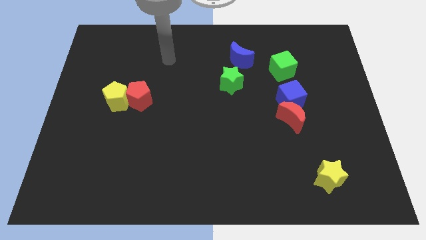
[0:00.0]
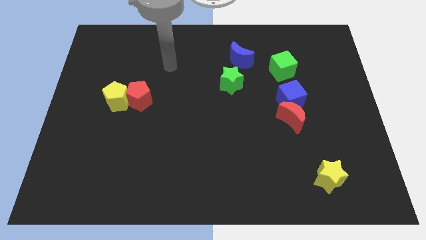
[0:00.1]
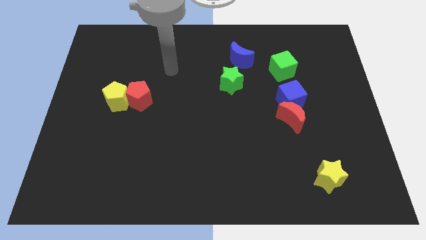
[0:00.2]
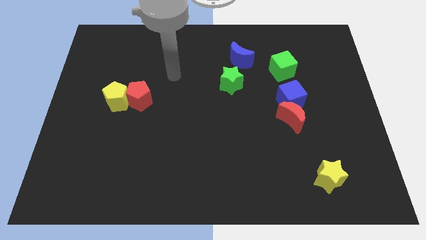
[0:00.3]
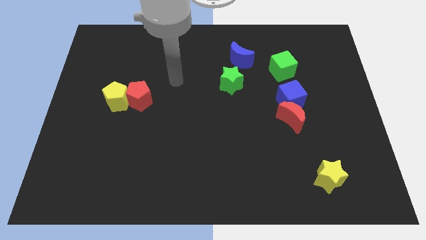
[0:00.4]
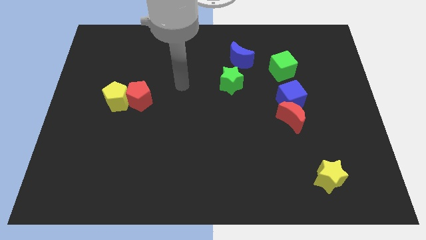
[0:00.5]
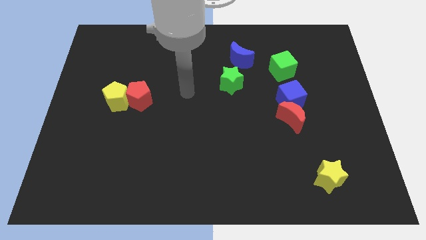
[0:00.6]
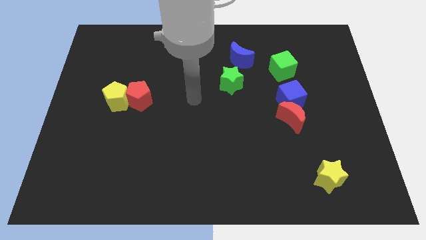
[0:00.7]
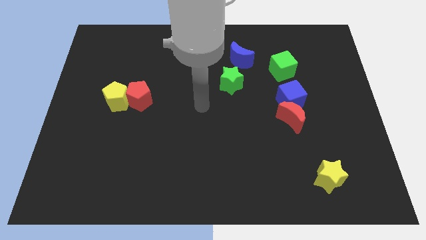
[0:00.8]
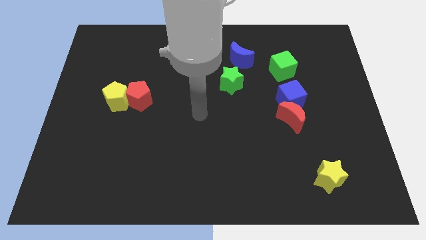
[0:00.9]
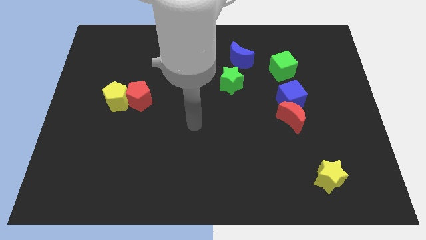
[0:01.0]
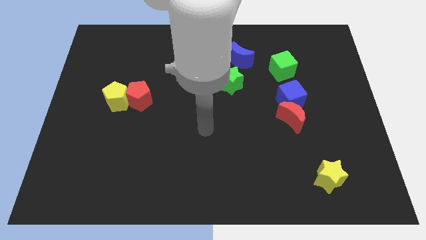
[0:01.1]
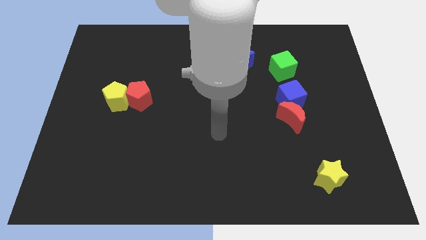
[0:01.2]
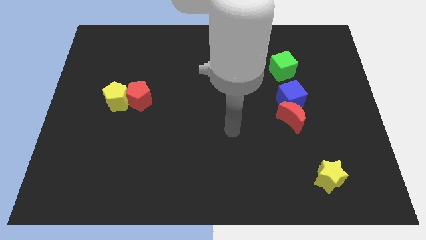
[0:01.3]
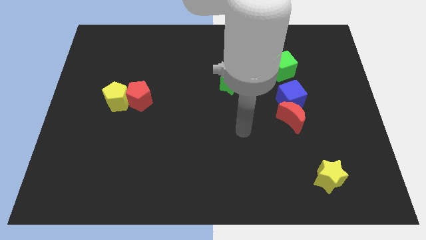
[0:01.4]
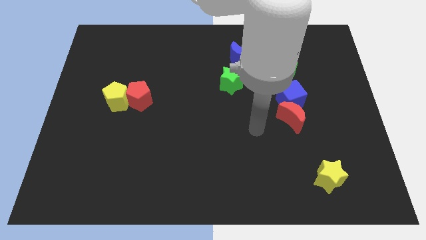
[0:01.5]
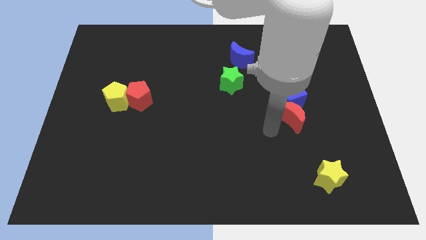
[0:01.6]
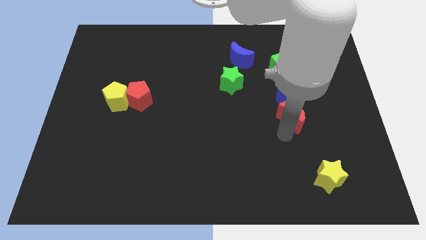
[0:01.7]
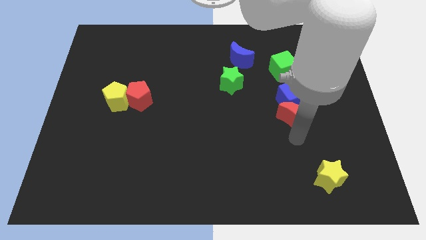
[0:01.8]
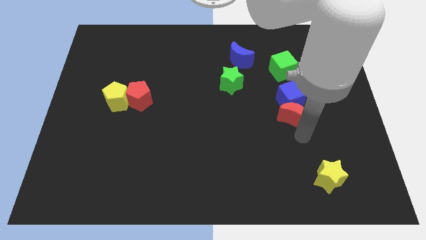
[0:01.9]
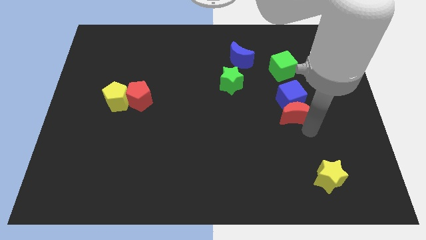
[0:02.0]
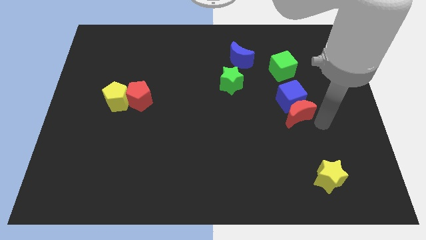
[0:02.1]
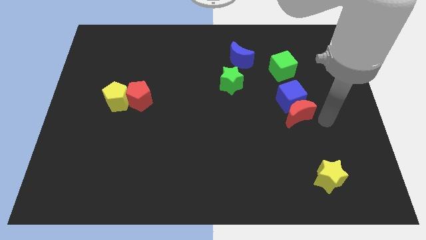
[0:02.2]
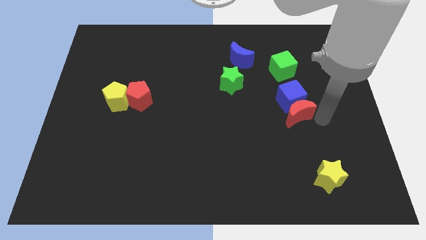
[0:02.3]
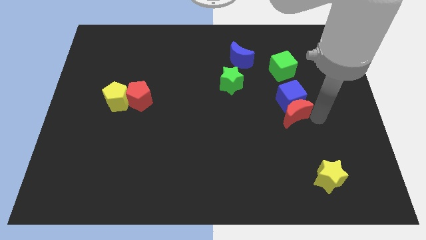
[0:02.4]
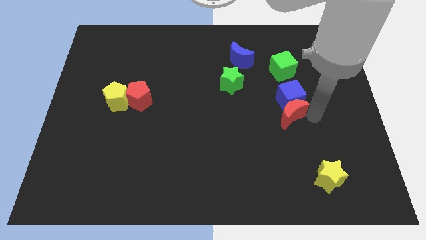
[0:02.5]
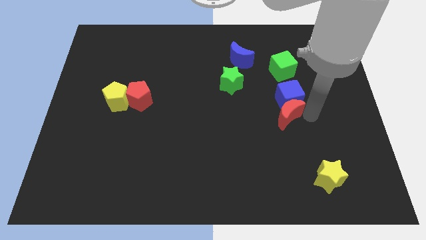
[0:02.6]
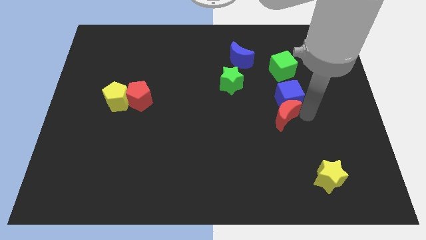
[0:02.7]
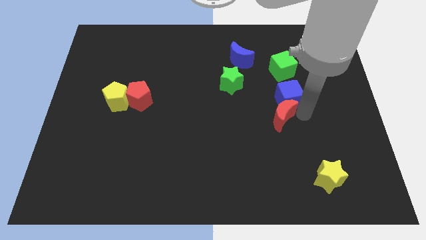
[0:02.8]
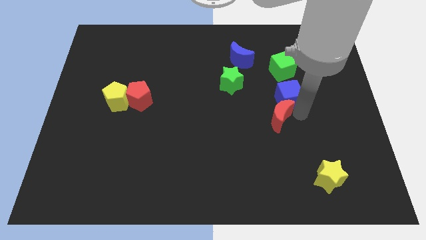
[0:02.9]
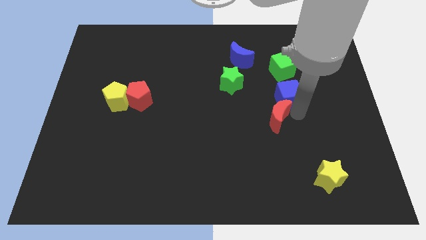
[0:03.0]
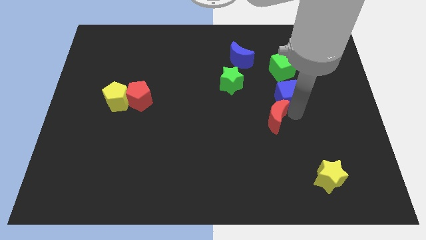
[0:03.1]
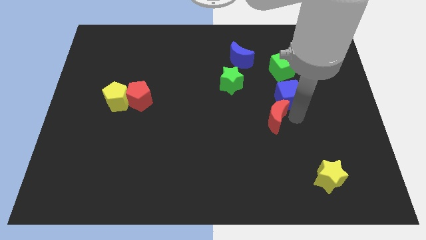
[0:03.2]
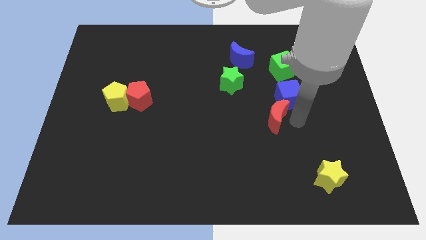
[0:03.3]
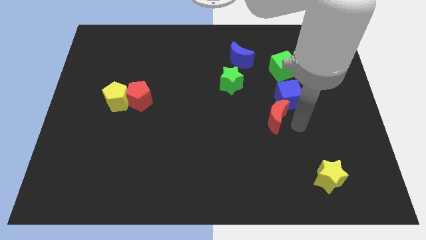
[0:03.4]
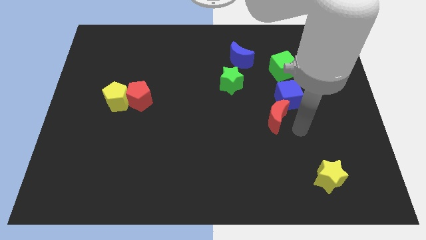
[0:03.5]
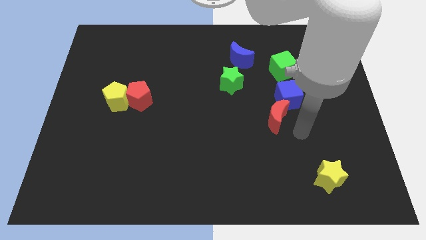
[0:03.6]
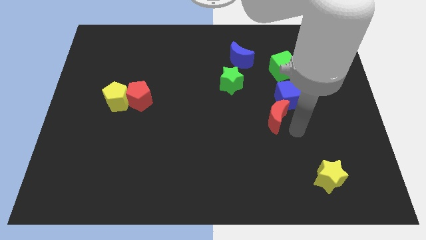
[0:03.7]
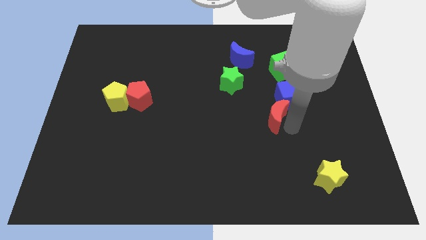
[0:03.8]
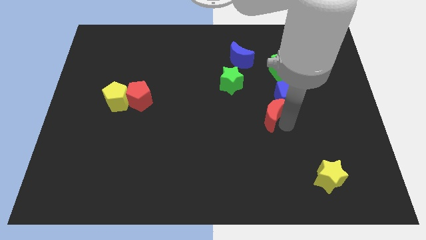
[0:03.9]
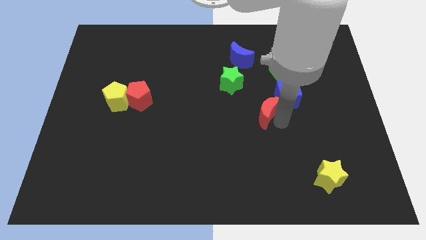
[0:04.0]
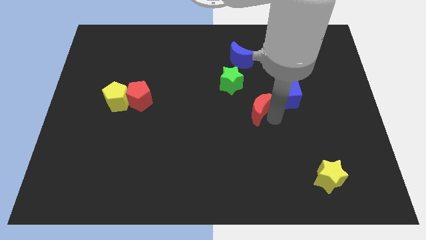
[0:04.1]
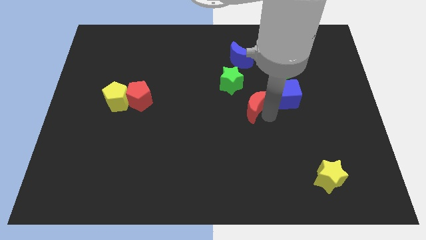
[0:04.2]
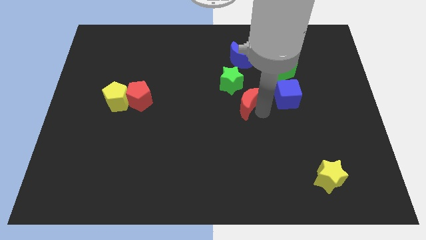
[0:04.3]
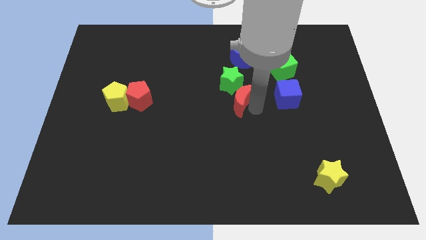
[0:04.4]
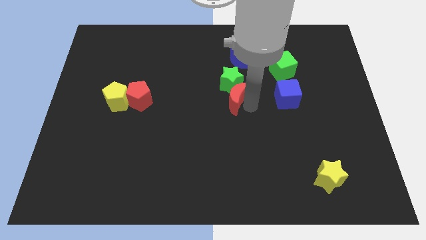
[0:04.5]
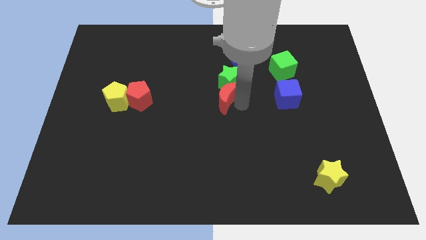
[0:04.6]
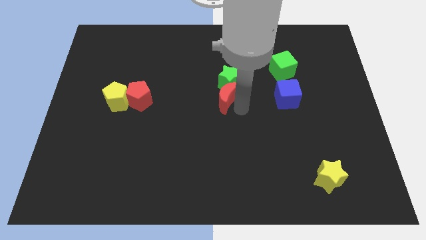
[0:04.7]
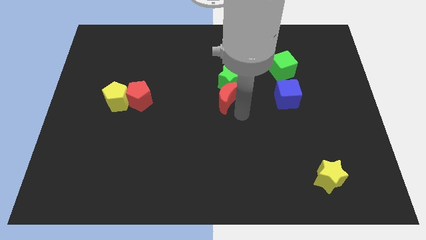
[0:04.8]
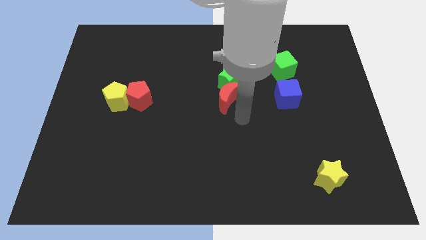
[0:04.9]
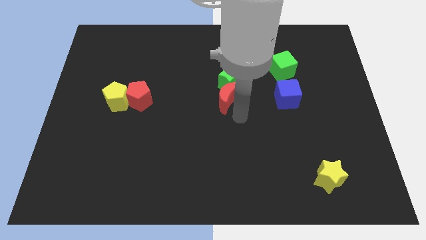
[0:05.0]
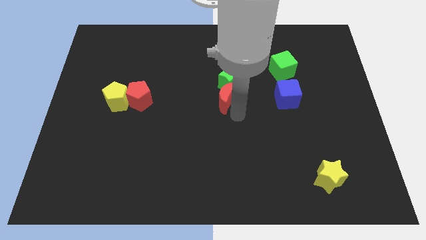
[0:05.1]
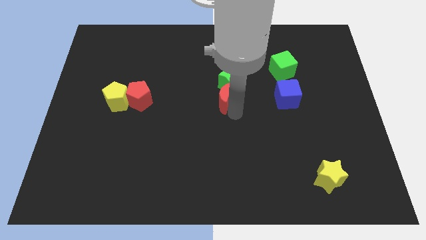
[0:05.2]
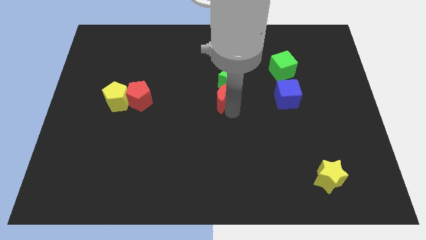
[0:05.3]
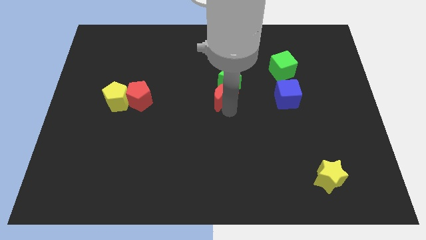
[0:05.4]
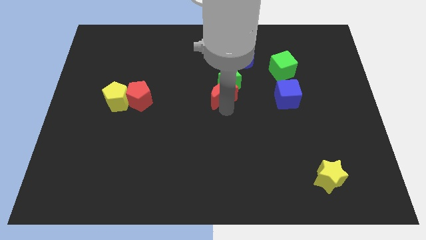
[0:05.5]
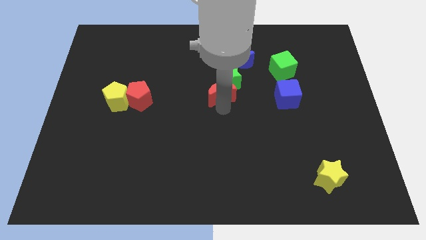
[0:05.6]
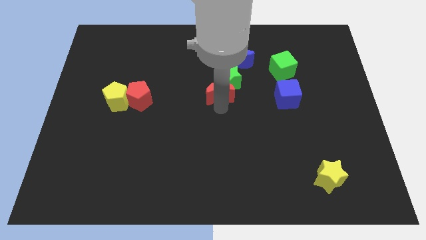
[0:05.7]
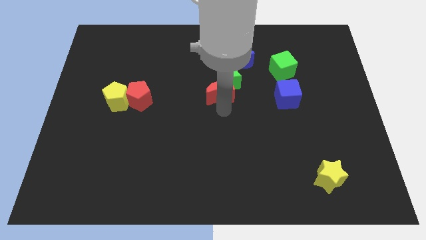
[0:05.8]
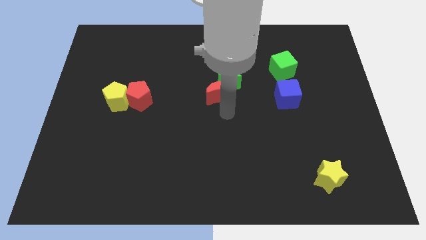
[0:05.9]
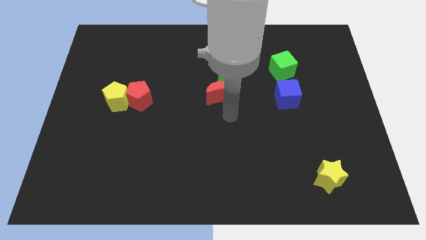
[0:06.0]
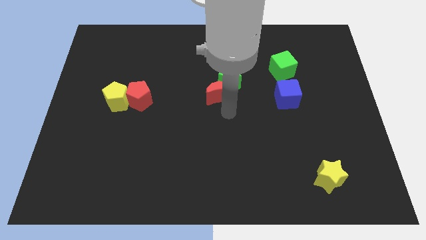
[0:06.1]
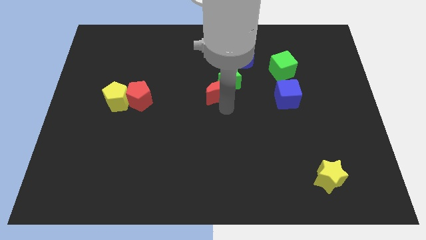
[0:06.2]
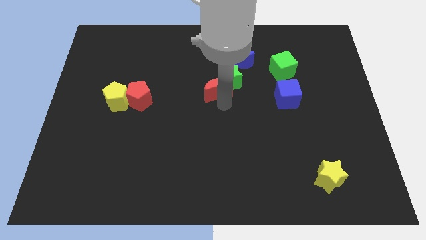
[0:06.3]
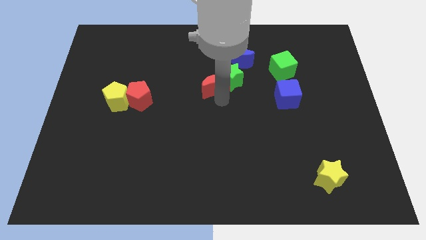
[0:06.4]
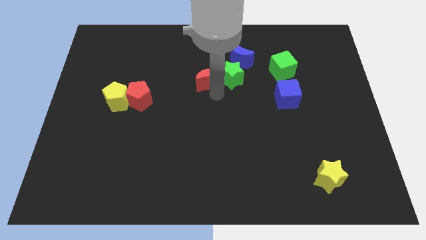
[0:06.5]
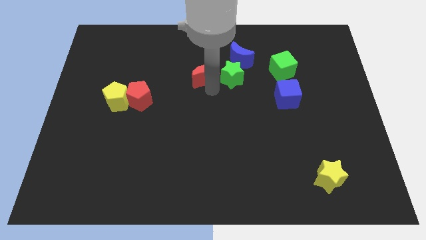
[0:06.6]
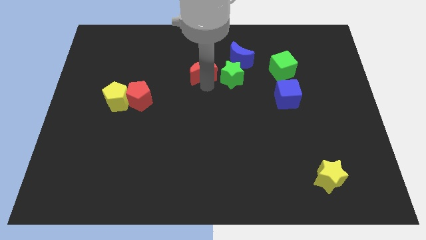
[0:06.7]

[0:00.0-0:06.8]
put the red moon to the top left side of the green star

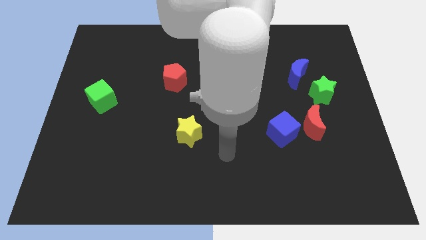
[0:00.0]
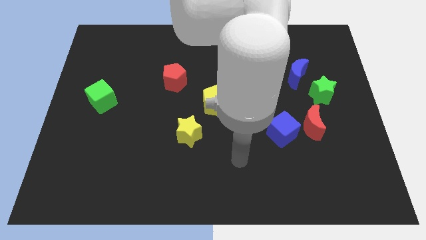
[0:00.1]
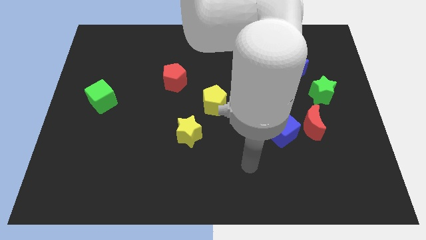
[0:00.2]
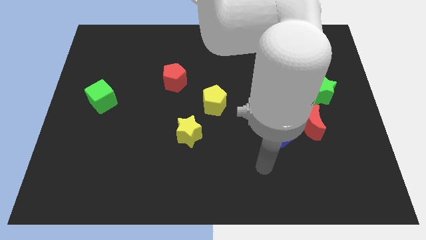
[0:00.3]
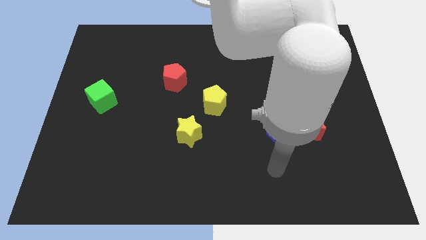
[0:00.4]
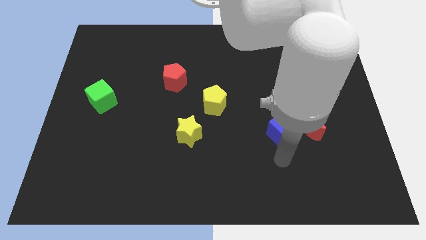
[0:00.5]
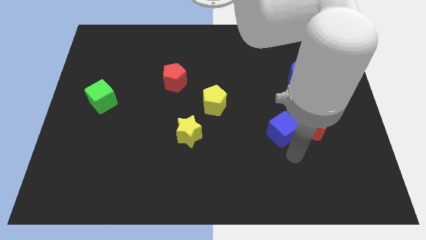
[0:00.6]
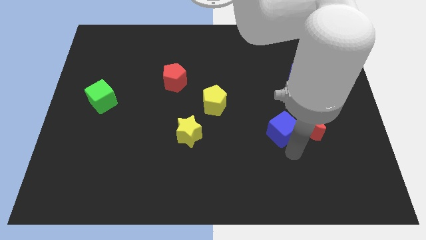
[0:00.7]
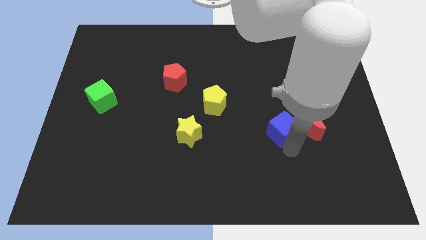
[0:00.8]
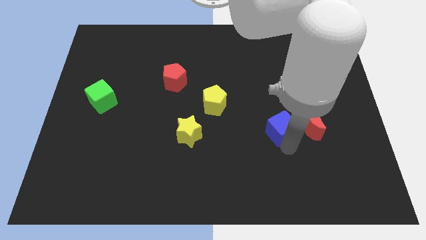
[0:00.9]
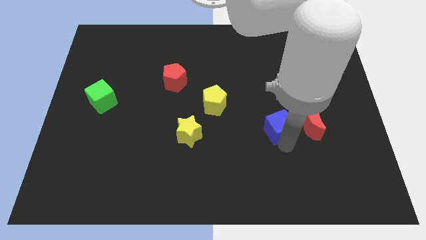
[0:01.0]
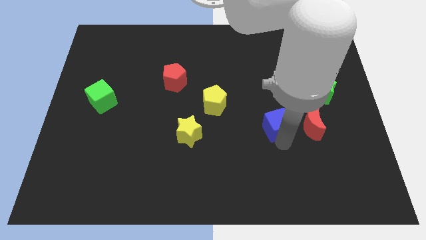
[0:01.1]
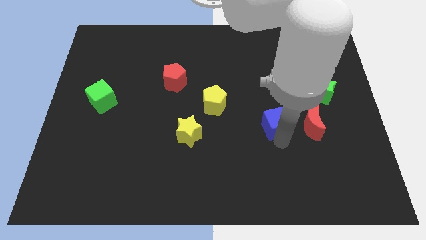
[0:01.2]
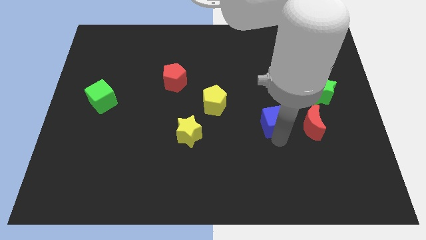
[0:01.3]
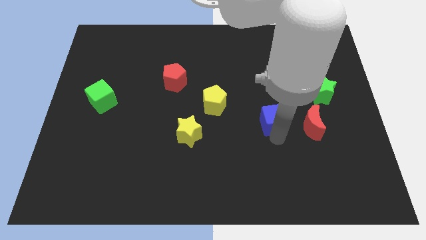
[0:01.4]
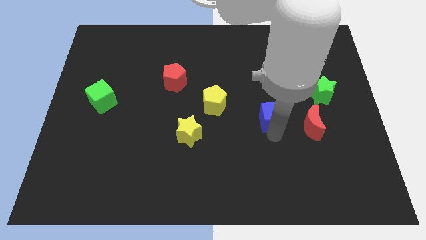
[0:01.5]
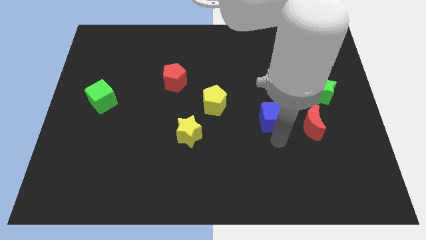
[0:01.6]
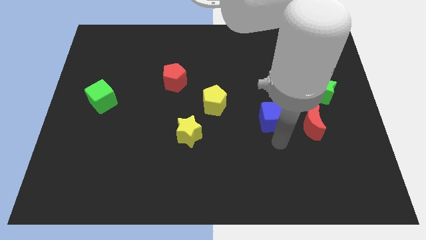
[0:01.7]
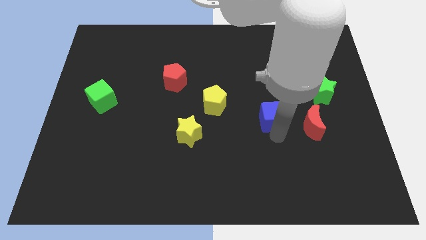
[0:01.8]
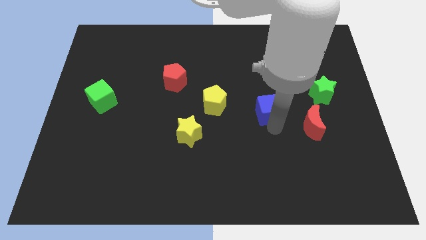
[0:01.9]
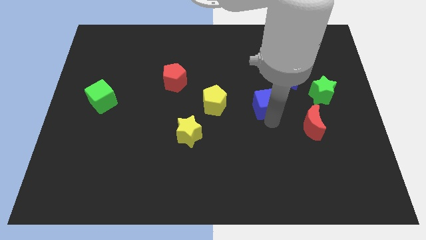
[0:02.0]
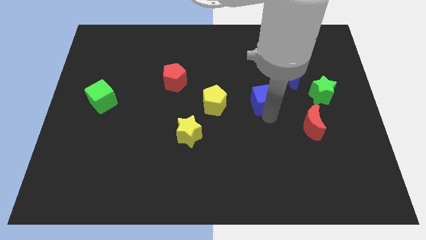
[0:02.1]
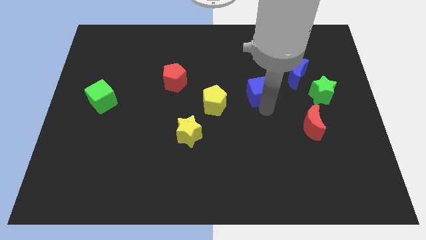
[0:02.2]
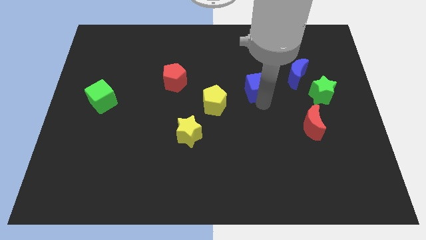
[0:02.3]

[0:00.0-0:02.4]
push the blue cube to the left side of the blue moon
